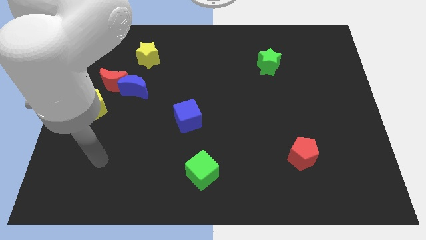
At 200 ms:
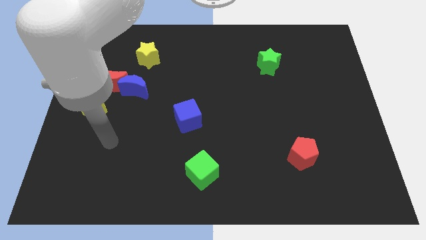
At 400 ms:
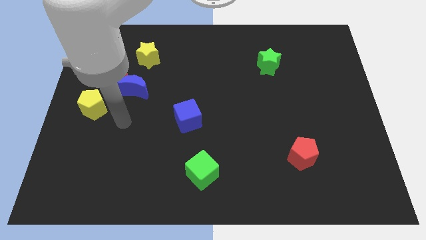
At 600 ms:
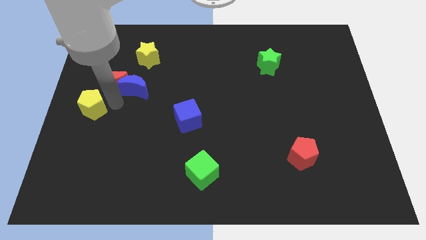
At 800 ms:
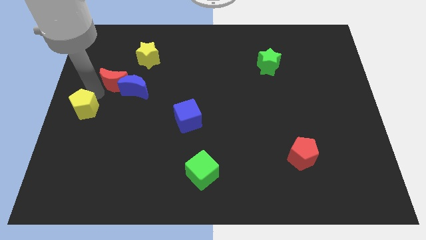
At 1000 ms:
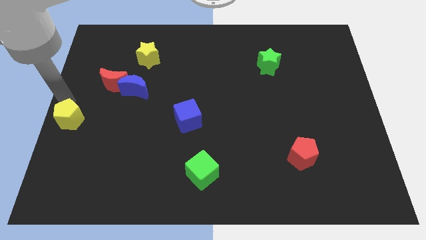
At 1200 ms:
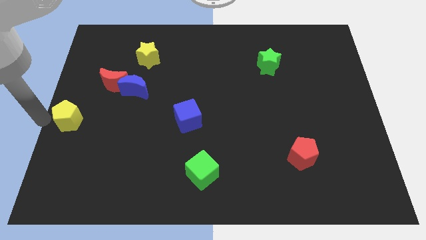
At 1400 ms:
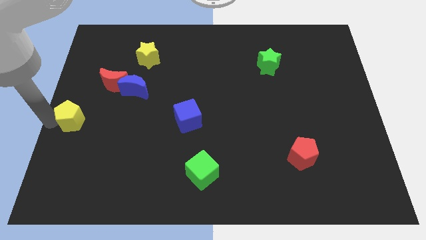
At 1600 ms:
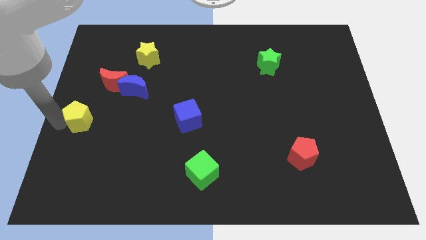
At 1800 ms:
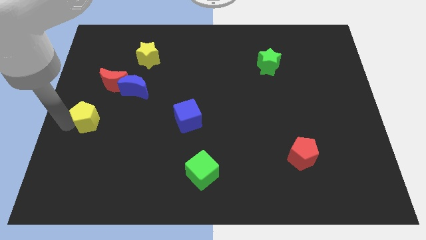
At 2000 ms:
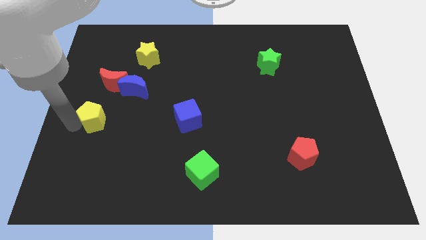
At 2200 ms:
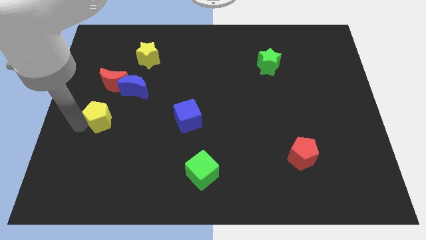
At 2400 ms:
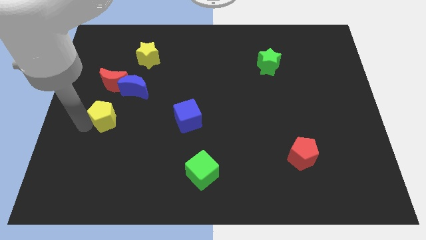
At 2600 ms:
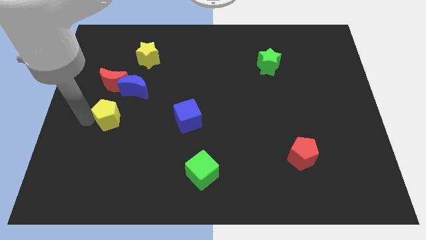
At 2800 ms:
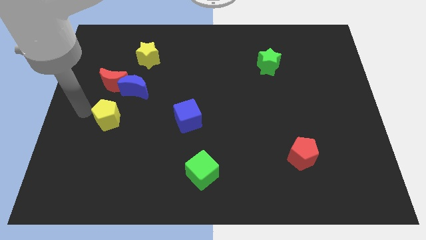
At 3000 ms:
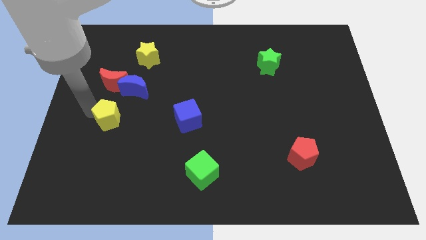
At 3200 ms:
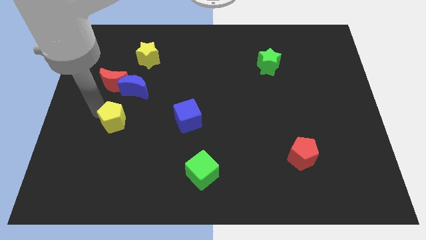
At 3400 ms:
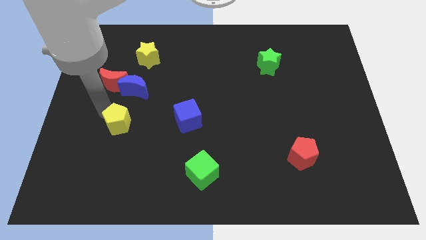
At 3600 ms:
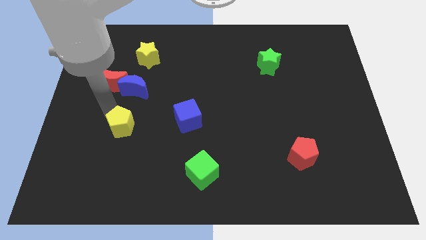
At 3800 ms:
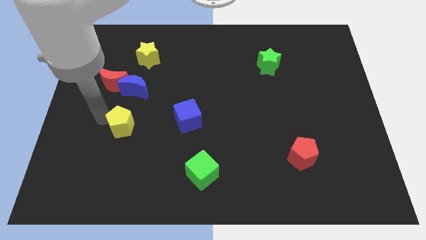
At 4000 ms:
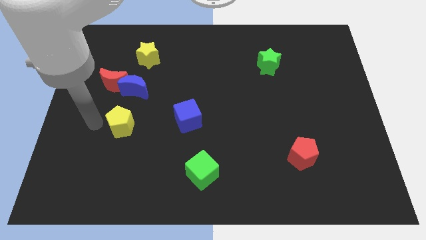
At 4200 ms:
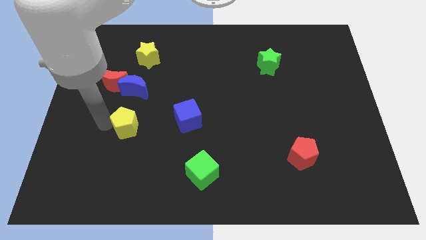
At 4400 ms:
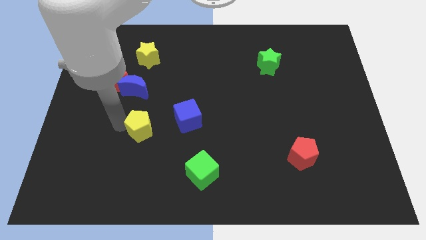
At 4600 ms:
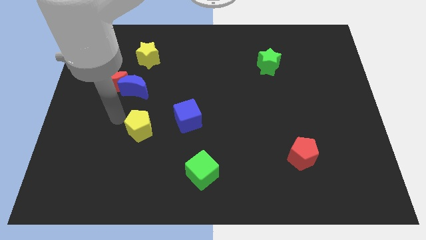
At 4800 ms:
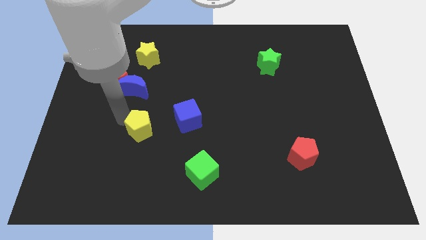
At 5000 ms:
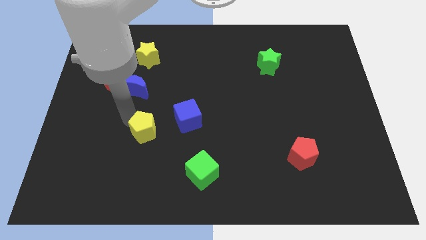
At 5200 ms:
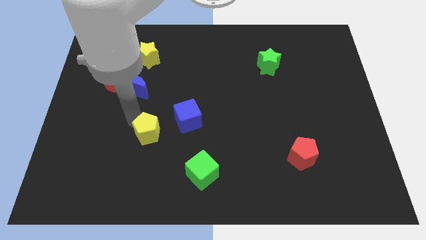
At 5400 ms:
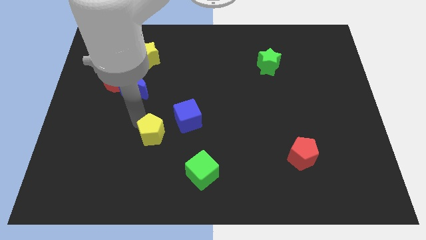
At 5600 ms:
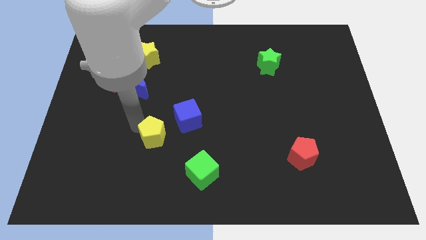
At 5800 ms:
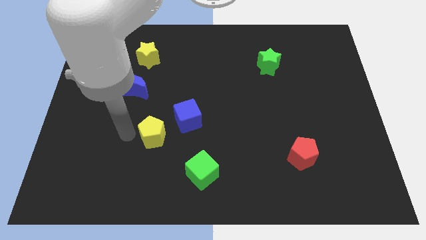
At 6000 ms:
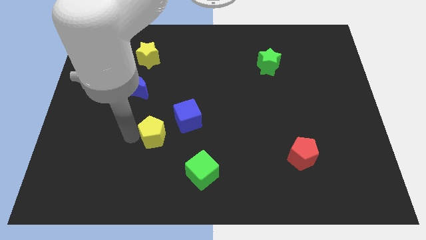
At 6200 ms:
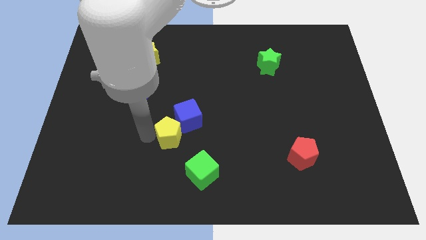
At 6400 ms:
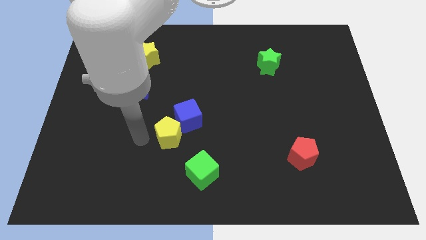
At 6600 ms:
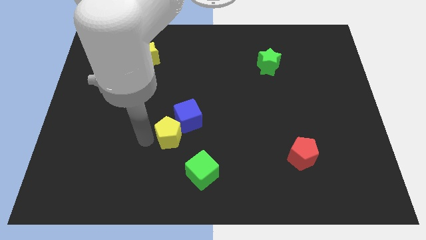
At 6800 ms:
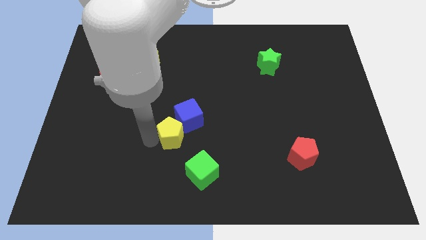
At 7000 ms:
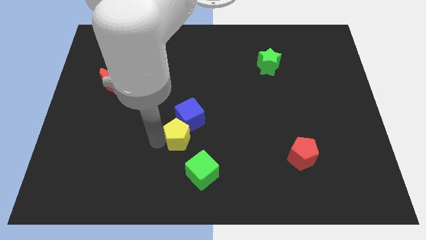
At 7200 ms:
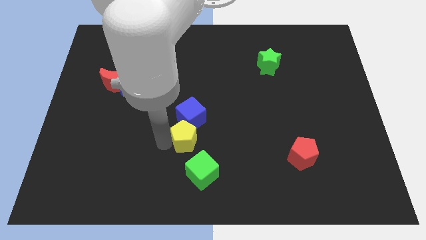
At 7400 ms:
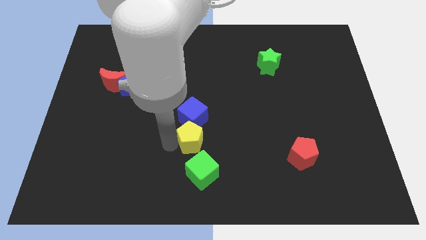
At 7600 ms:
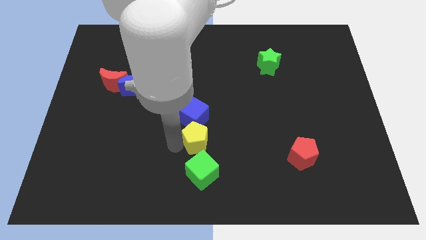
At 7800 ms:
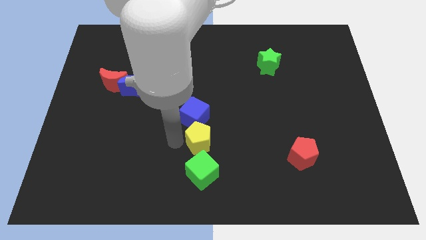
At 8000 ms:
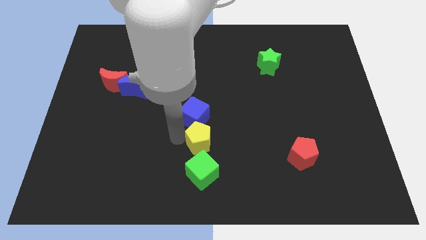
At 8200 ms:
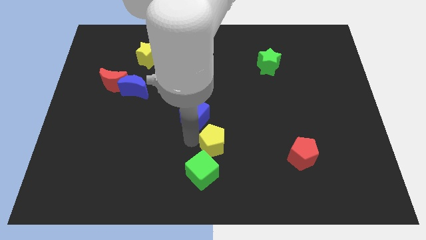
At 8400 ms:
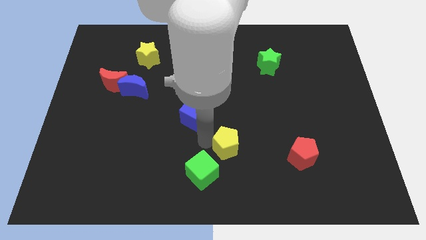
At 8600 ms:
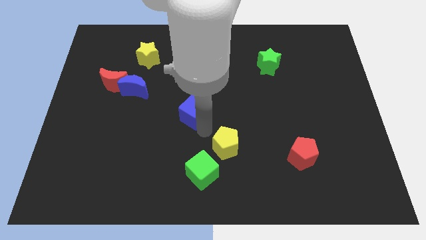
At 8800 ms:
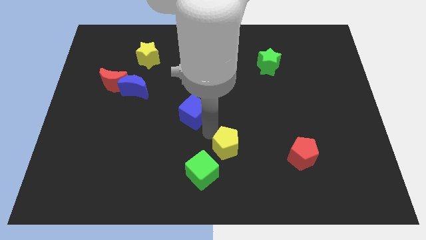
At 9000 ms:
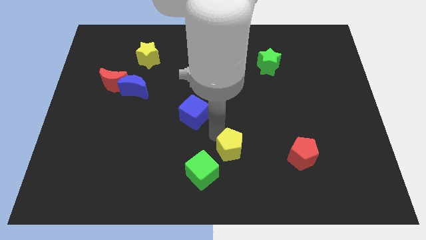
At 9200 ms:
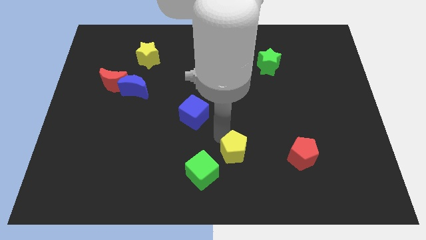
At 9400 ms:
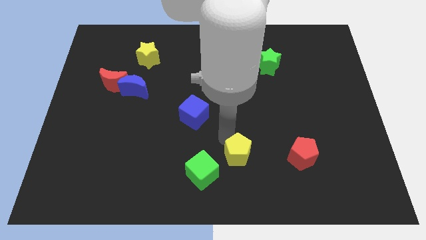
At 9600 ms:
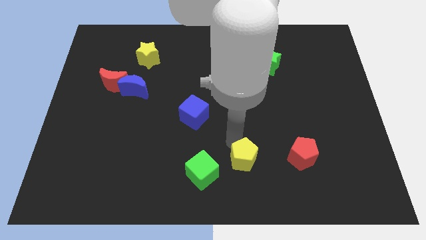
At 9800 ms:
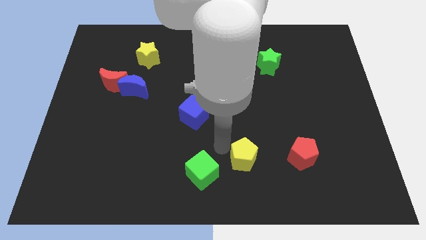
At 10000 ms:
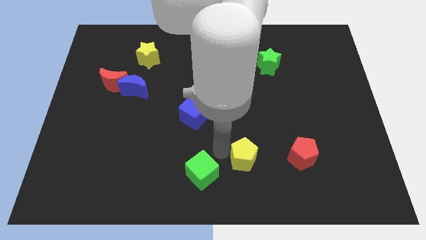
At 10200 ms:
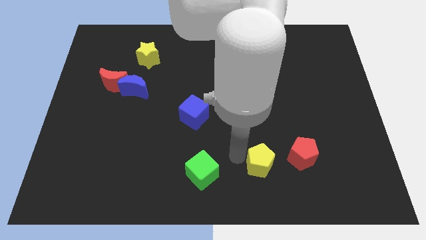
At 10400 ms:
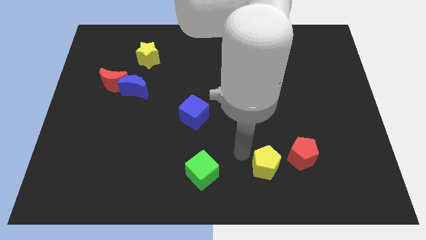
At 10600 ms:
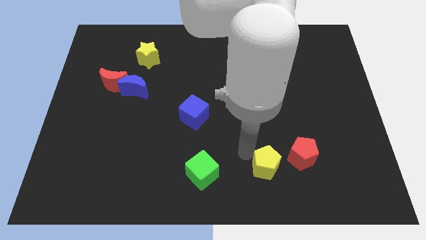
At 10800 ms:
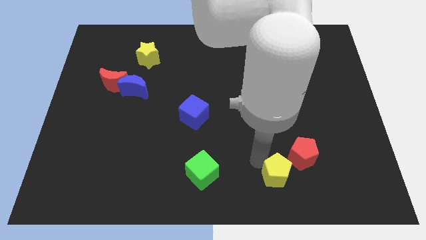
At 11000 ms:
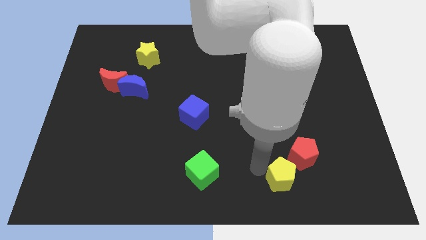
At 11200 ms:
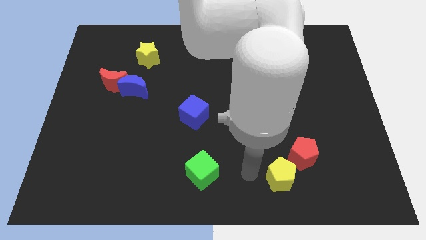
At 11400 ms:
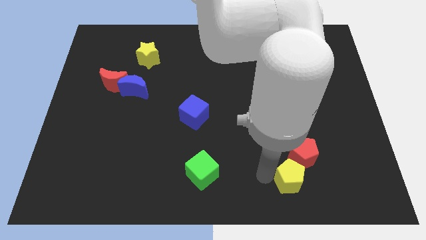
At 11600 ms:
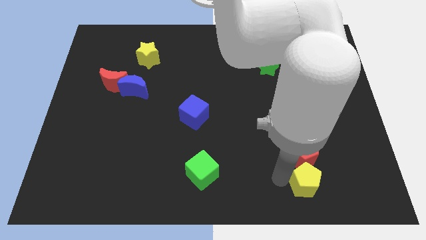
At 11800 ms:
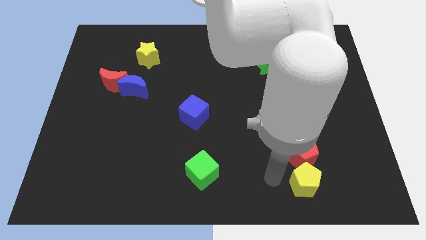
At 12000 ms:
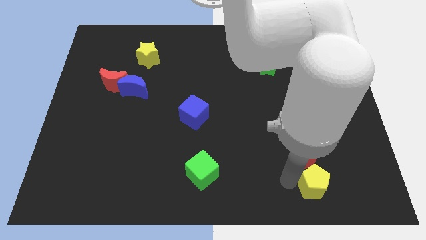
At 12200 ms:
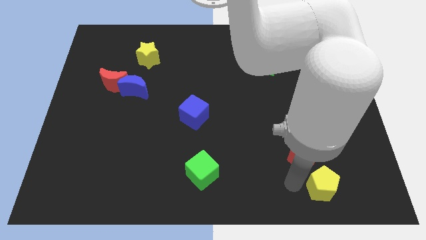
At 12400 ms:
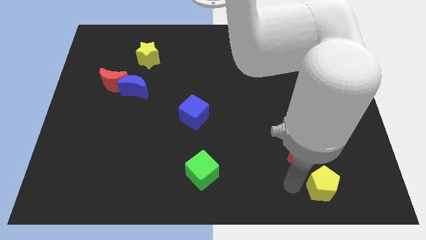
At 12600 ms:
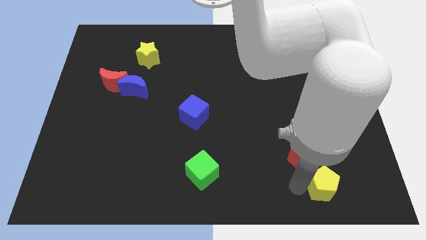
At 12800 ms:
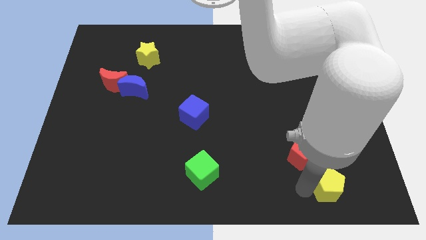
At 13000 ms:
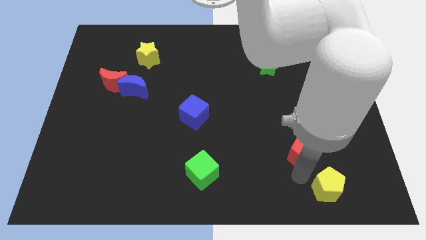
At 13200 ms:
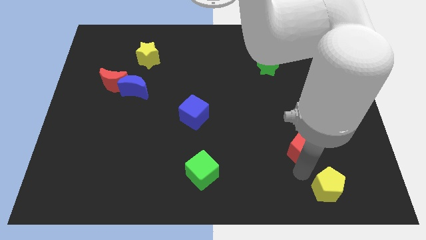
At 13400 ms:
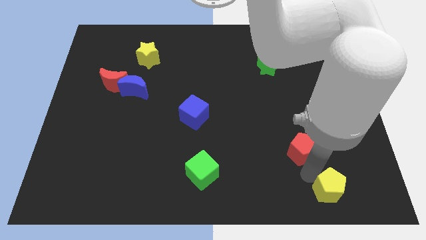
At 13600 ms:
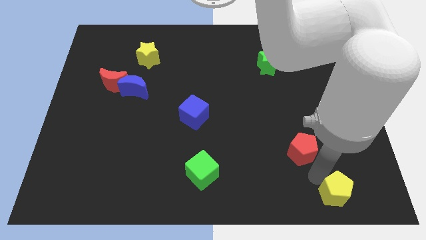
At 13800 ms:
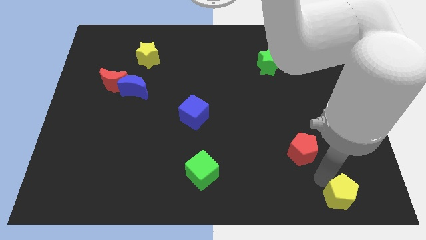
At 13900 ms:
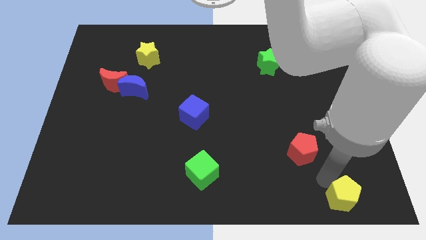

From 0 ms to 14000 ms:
put the yellow pentagon to the bottom right of the board
